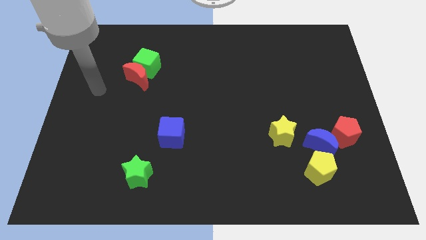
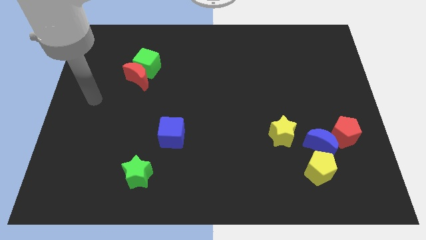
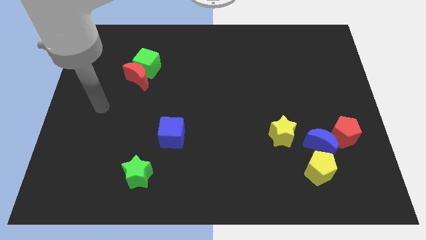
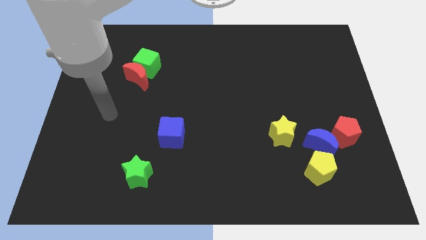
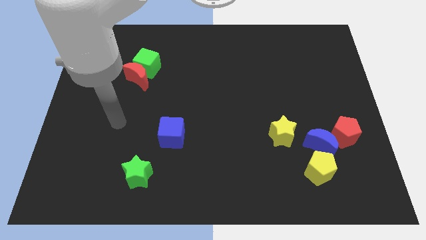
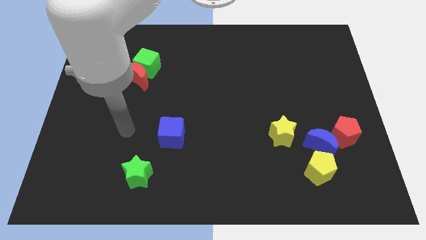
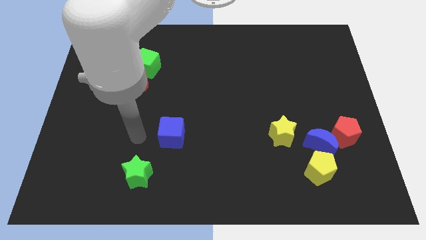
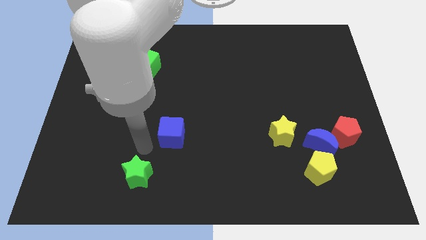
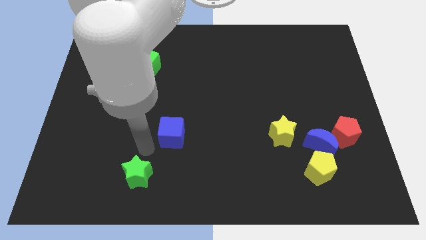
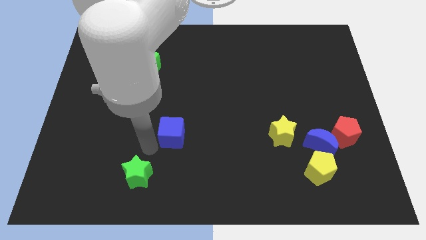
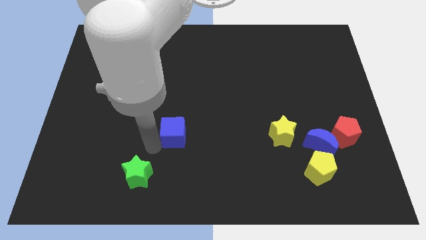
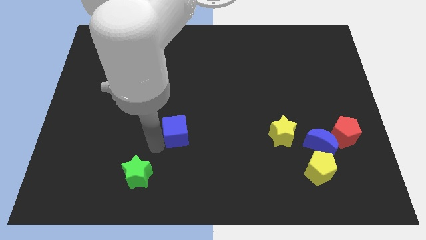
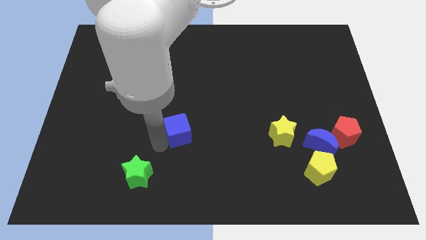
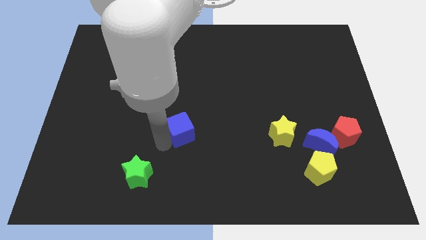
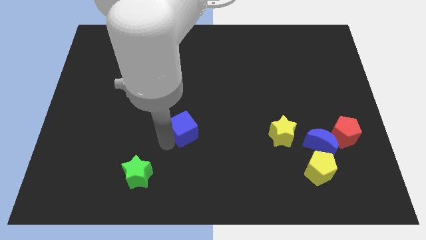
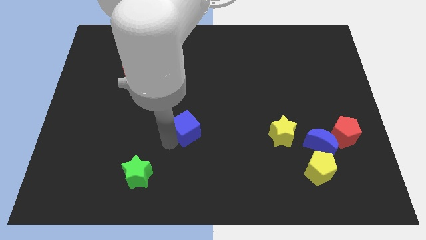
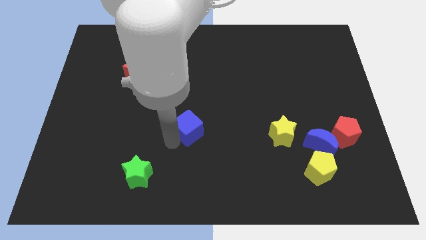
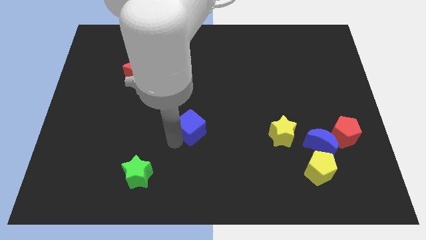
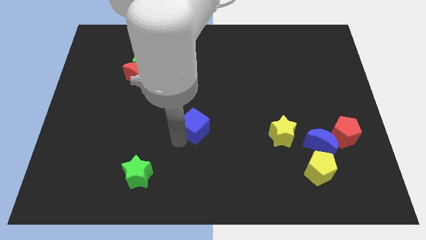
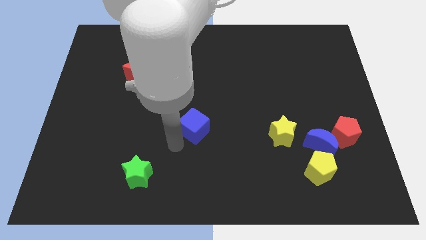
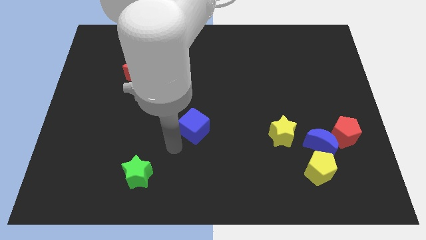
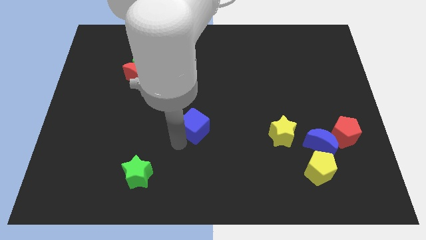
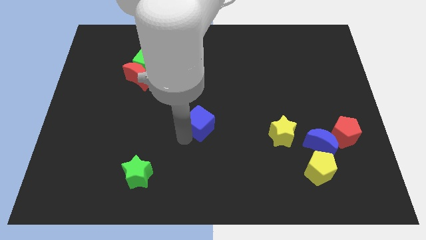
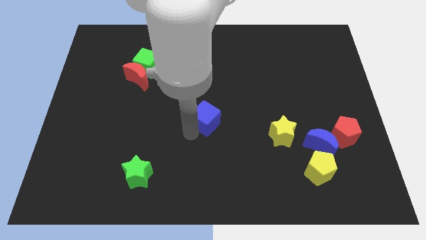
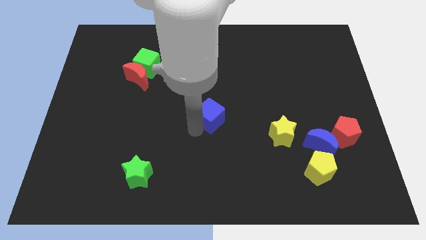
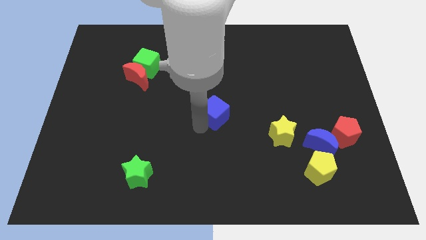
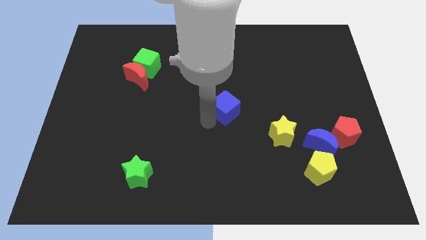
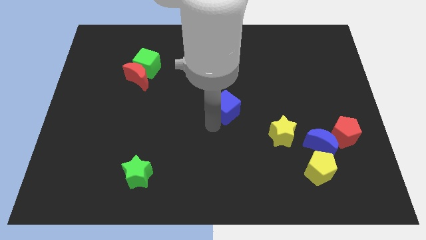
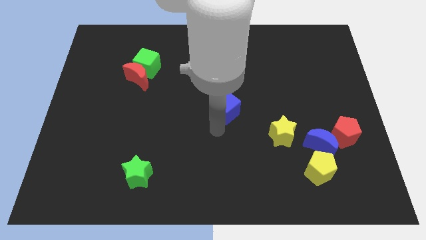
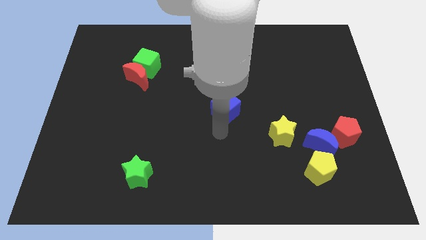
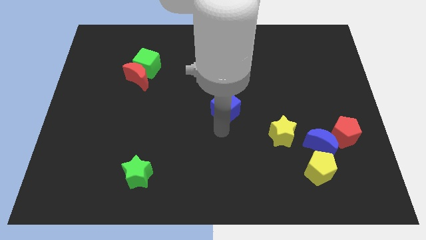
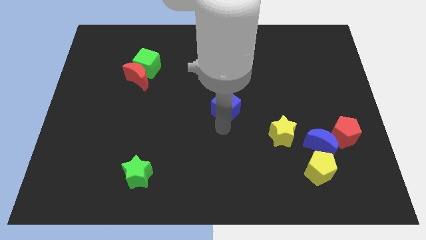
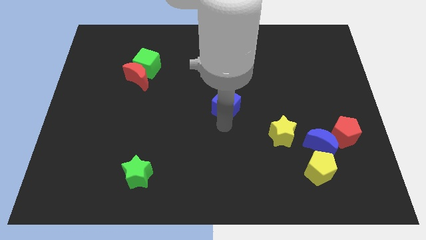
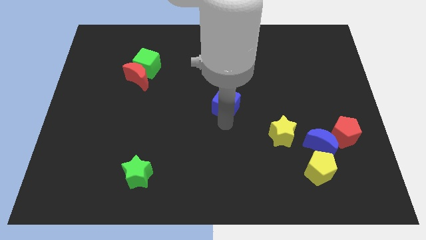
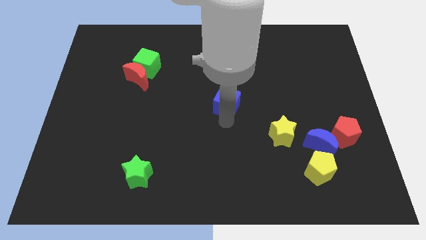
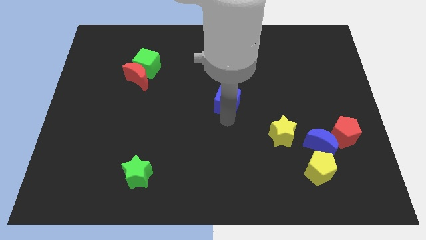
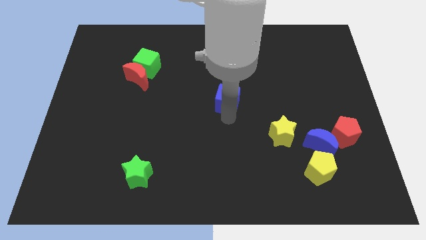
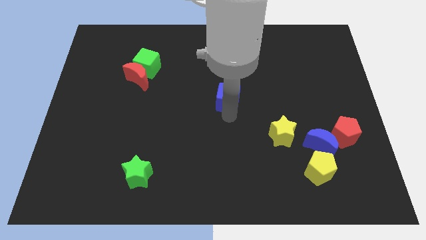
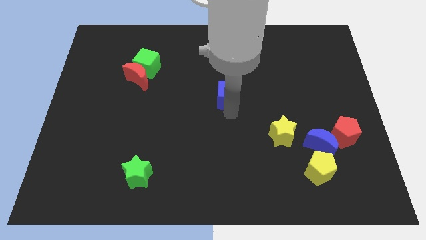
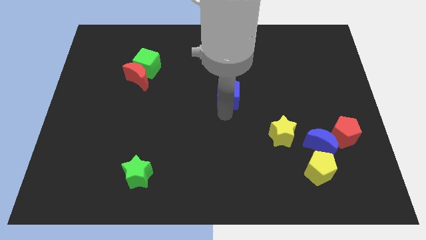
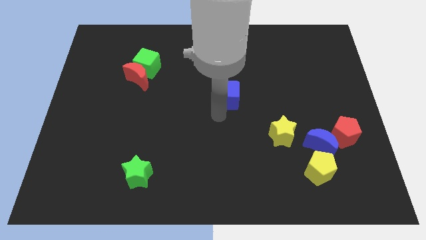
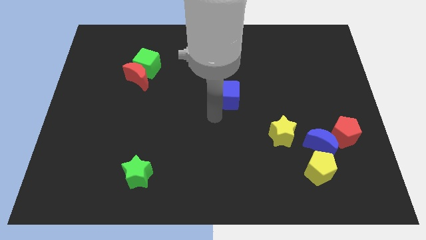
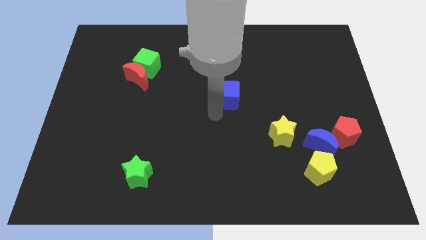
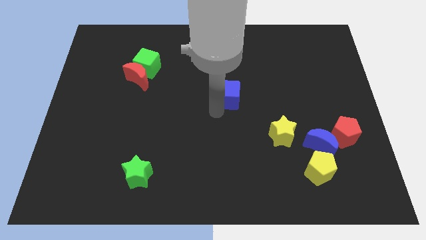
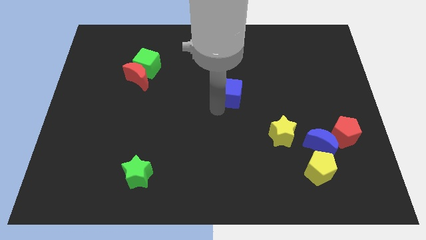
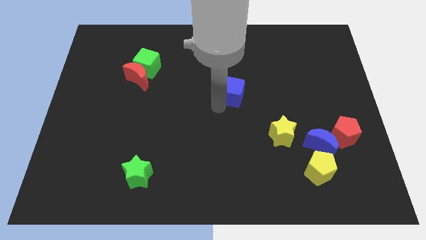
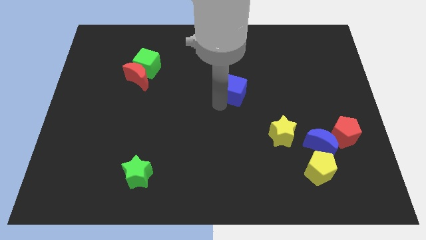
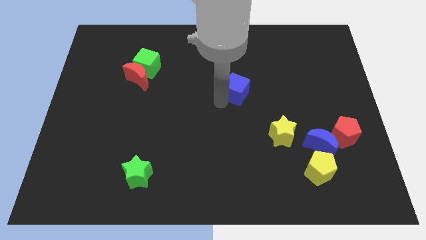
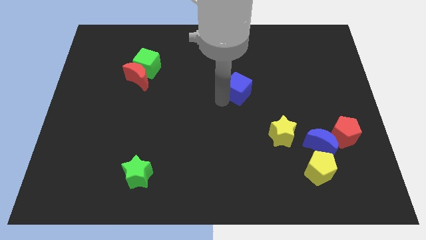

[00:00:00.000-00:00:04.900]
push the blue cube diagonally up and to the right

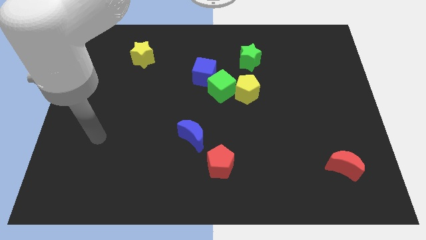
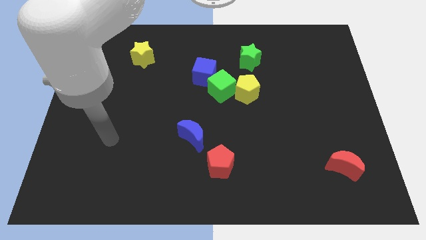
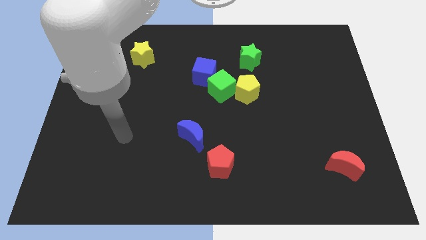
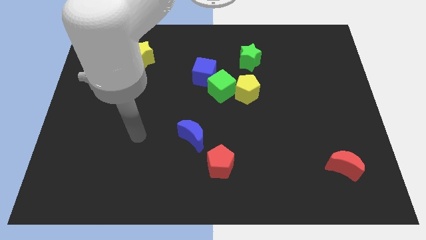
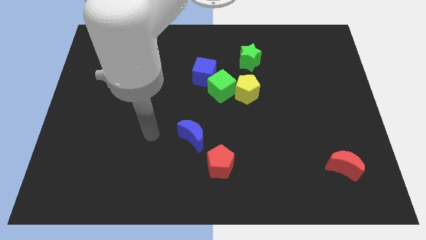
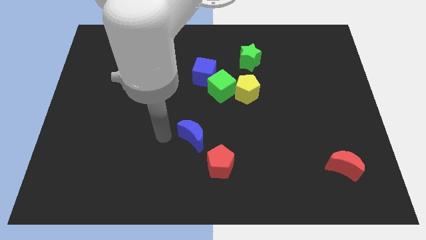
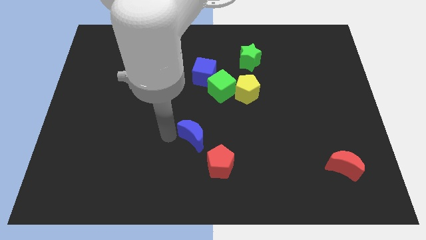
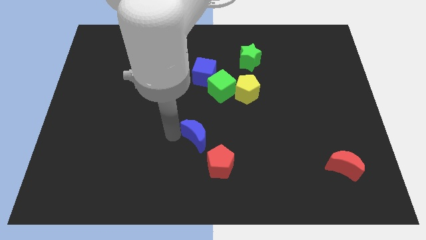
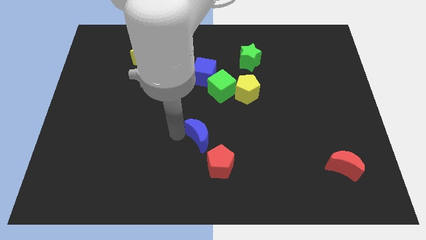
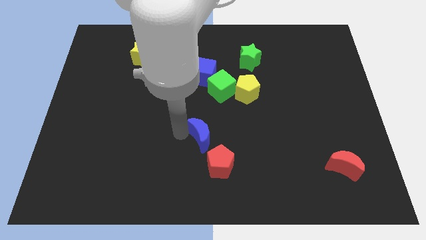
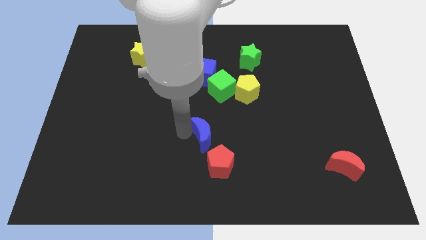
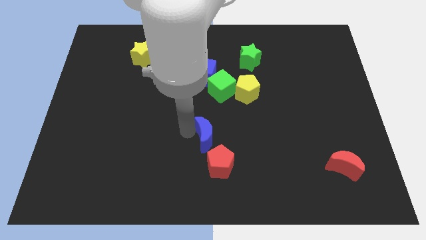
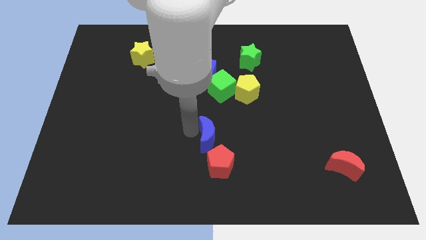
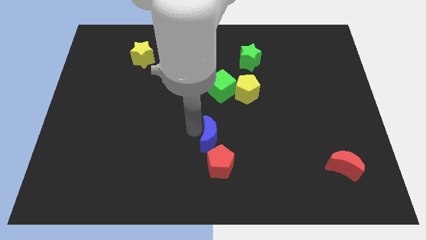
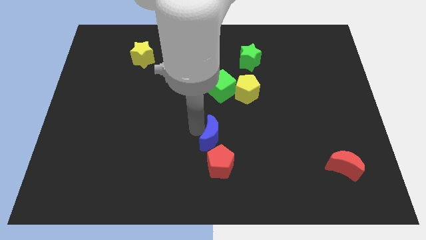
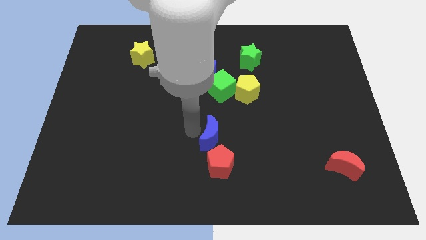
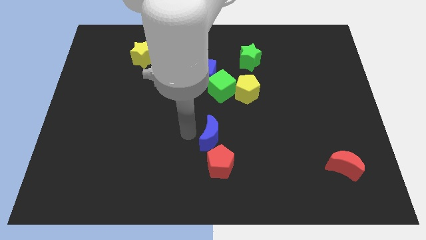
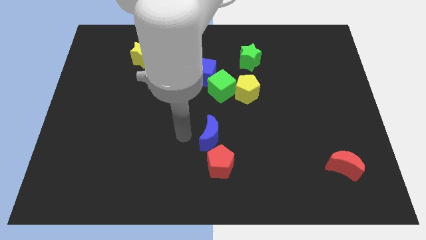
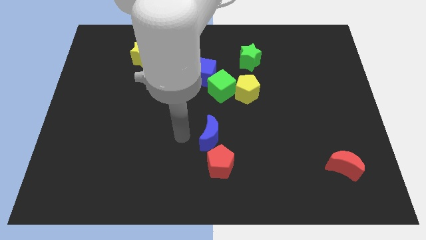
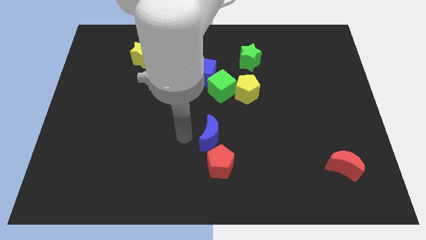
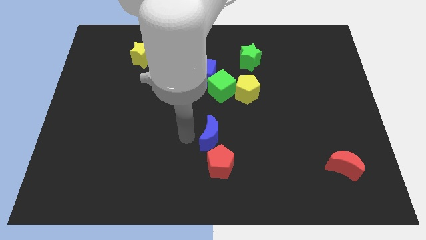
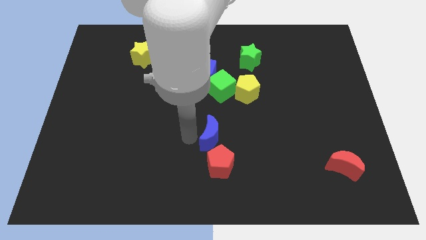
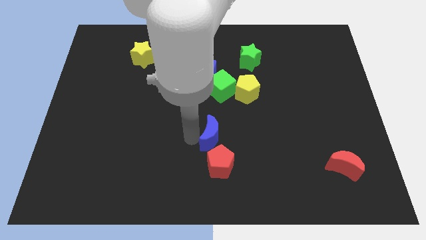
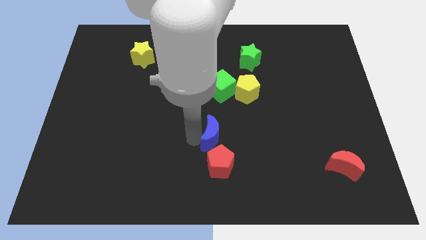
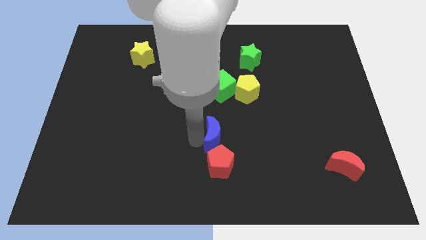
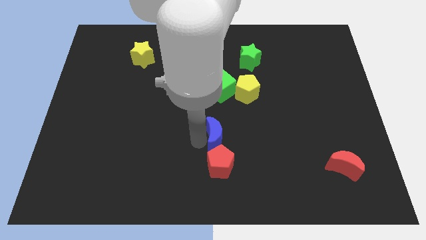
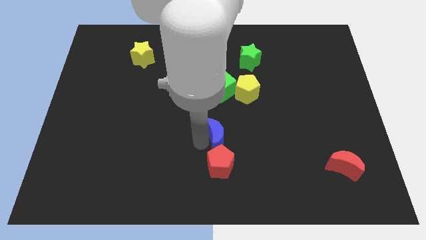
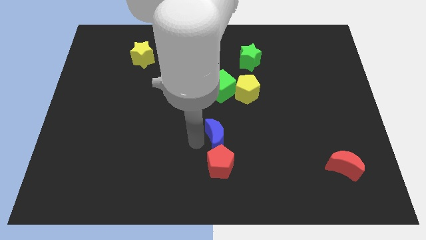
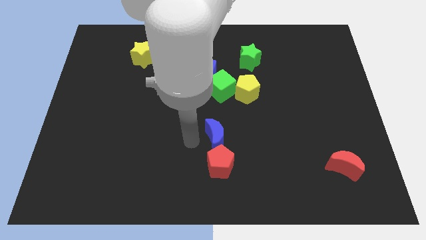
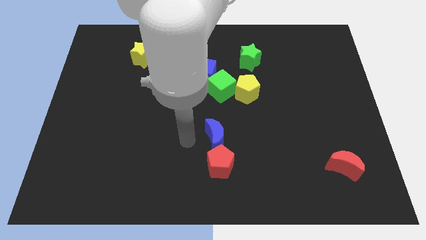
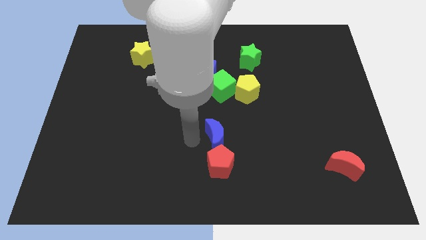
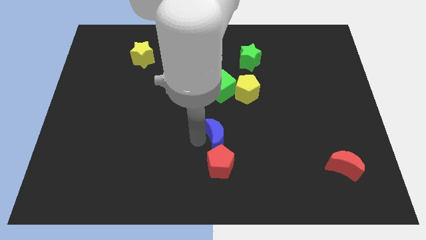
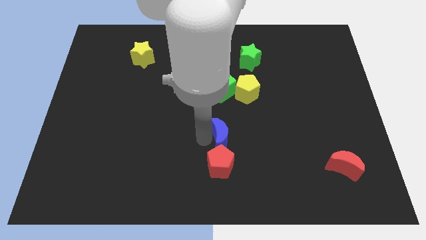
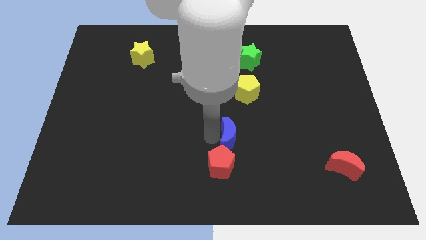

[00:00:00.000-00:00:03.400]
slide the blue moon to the right a bit
